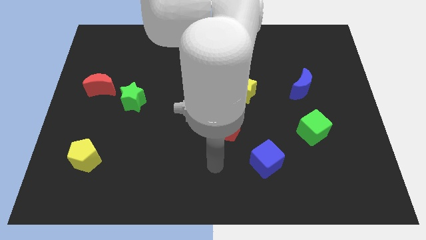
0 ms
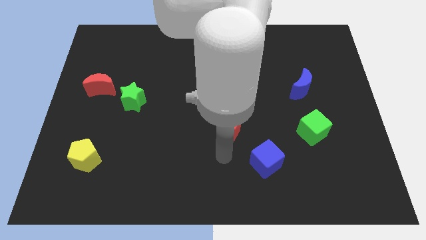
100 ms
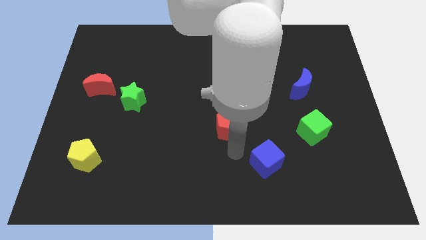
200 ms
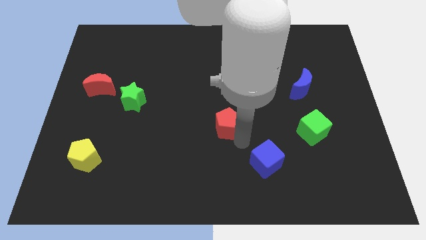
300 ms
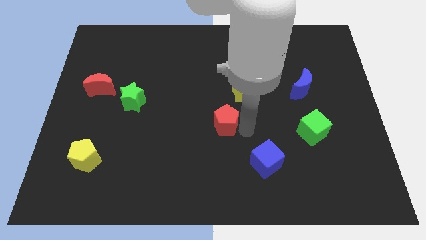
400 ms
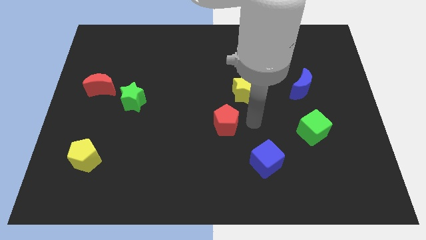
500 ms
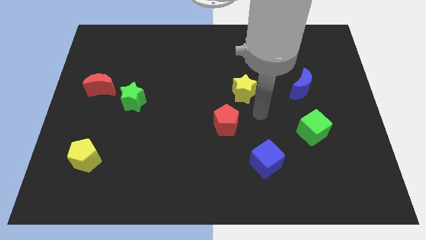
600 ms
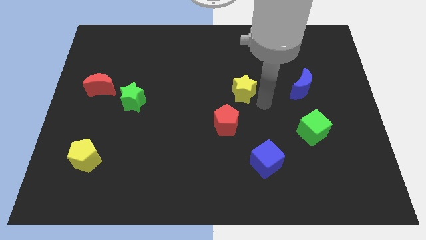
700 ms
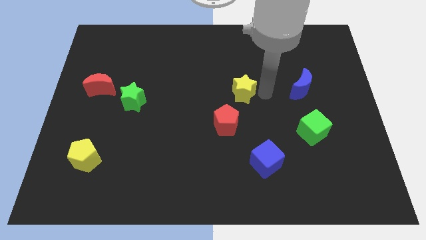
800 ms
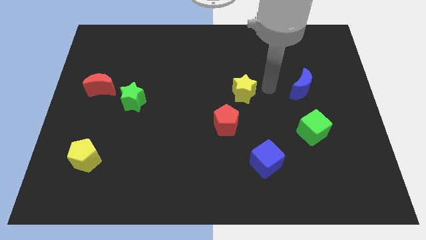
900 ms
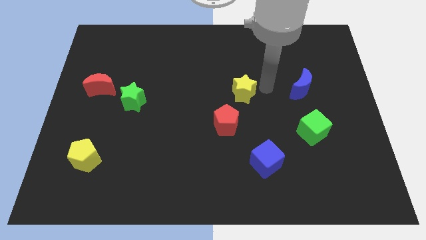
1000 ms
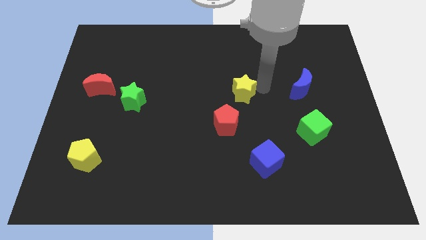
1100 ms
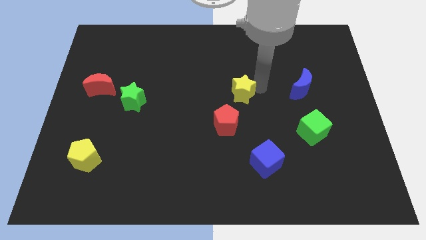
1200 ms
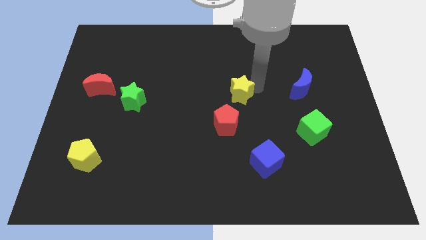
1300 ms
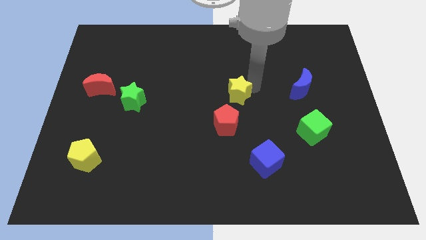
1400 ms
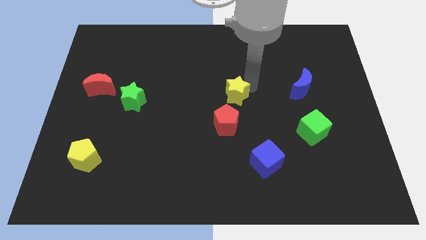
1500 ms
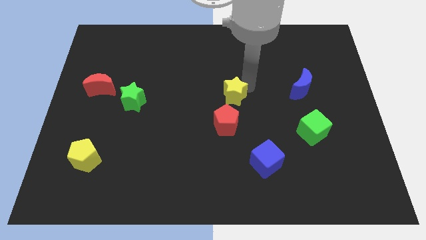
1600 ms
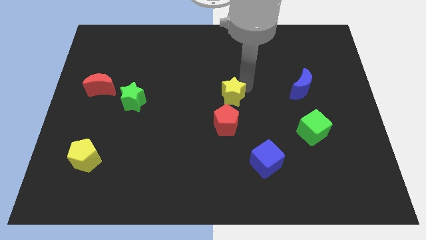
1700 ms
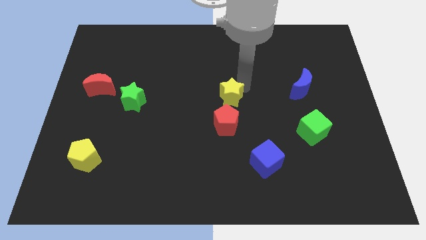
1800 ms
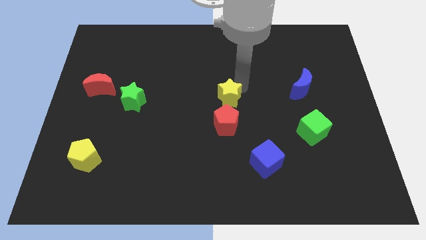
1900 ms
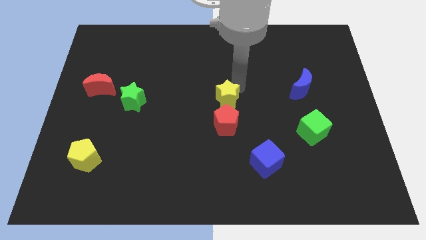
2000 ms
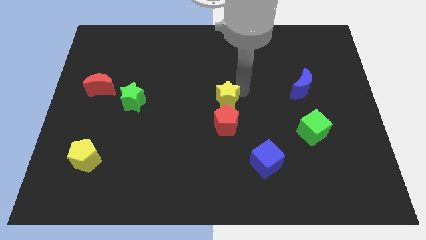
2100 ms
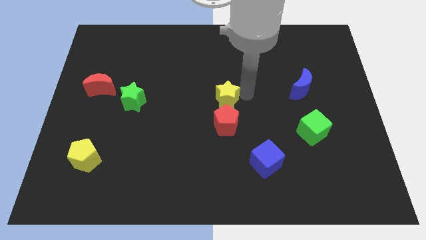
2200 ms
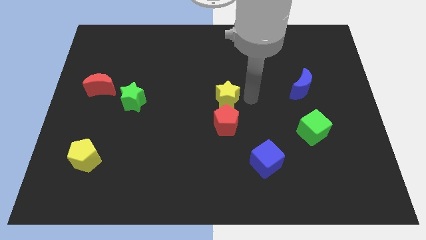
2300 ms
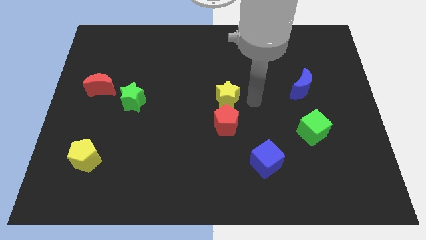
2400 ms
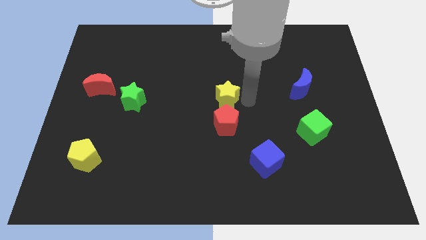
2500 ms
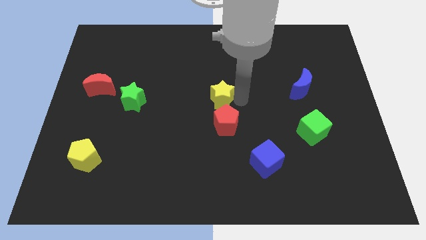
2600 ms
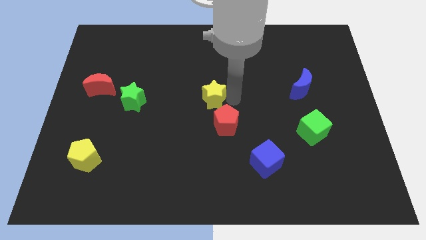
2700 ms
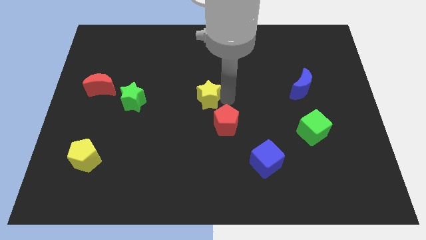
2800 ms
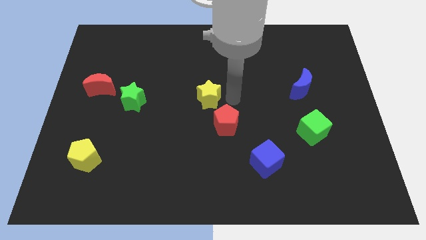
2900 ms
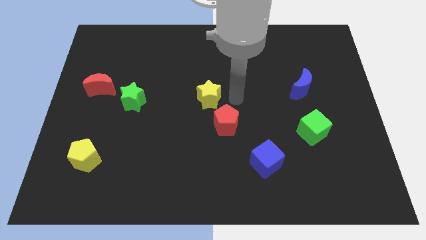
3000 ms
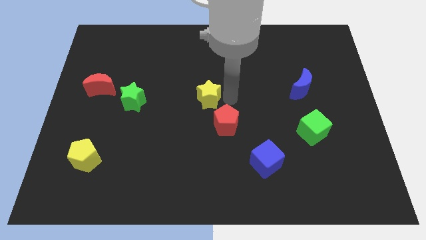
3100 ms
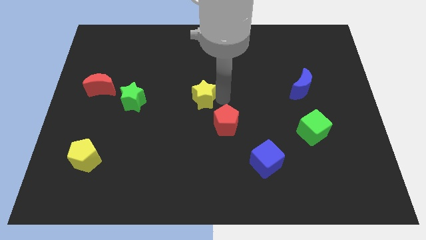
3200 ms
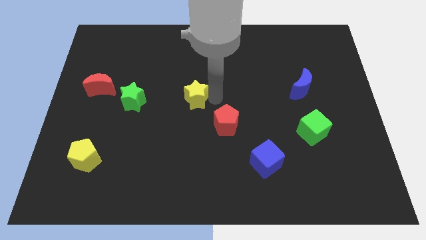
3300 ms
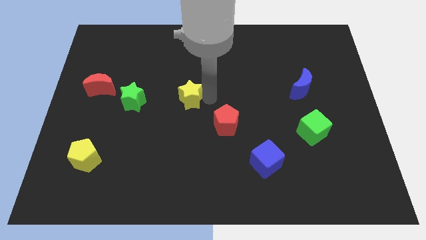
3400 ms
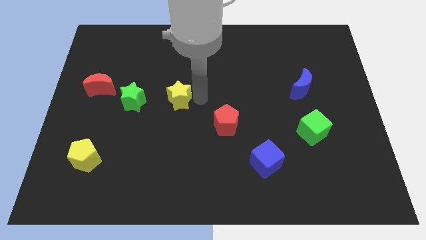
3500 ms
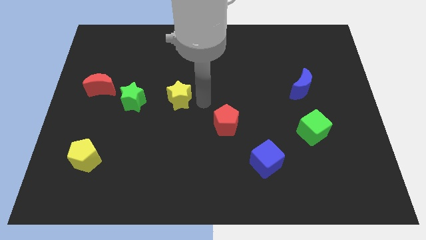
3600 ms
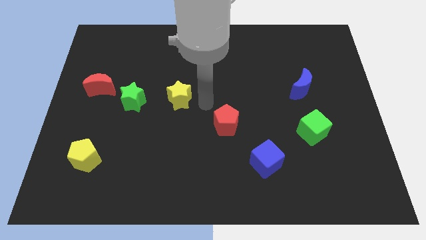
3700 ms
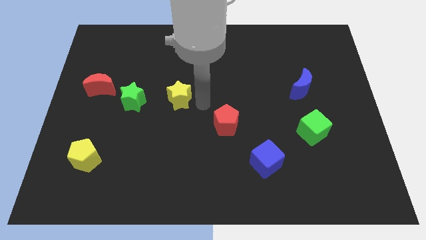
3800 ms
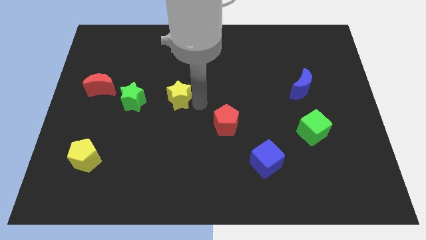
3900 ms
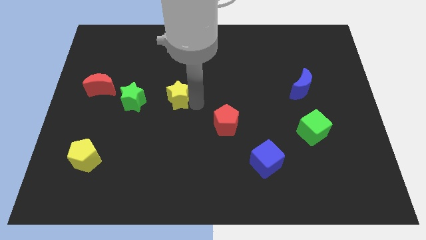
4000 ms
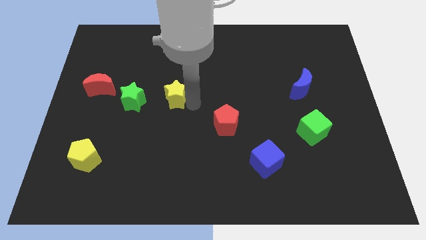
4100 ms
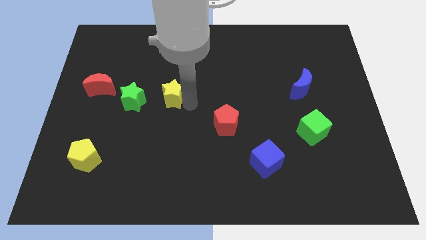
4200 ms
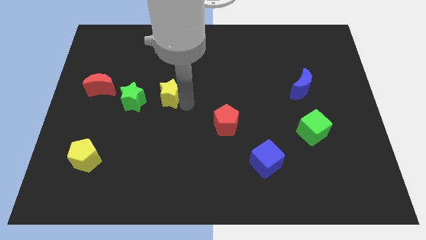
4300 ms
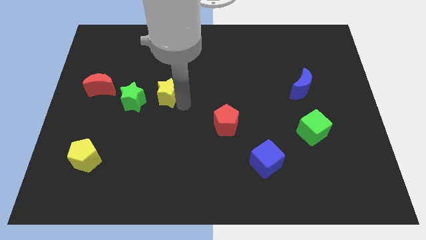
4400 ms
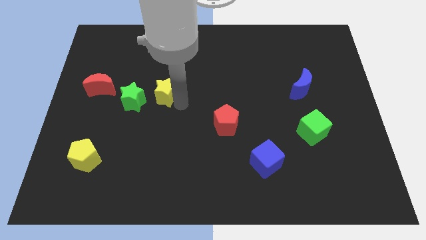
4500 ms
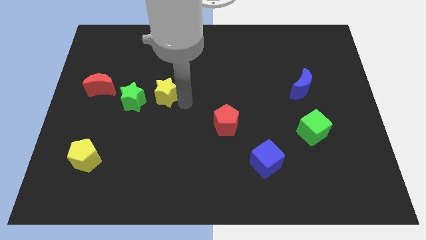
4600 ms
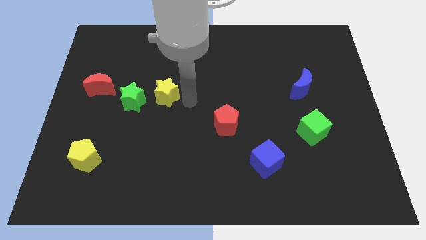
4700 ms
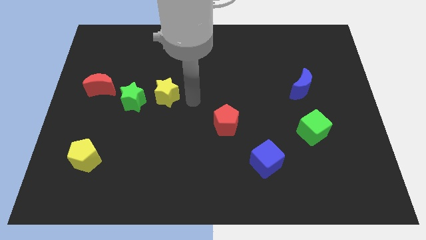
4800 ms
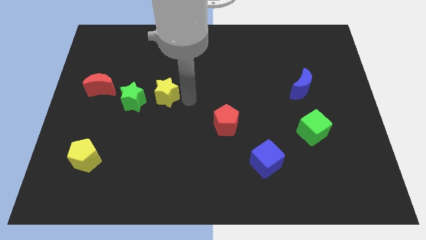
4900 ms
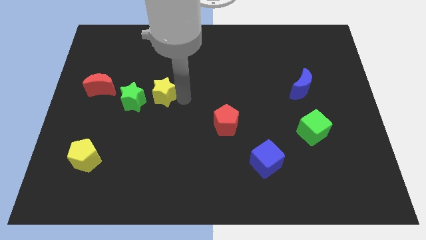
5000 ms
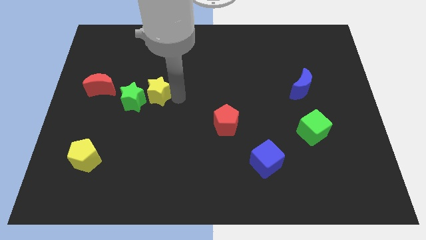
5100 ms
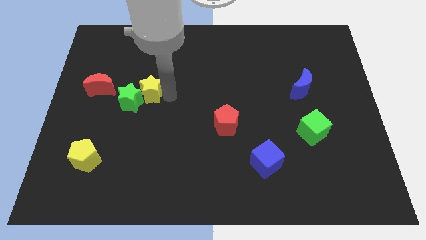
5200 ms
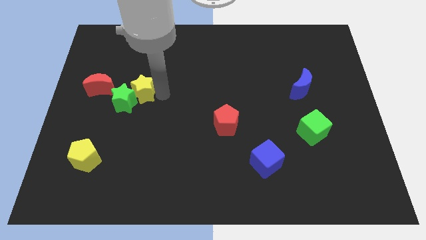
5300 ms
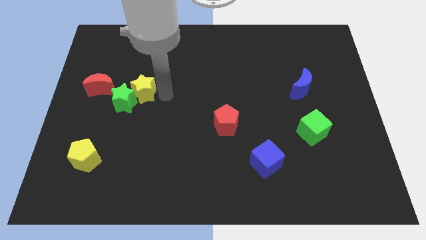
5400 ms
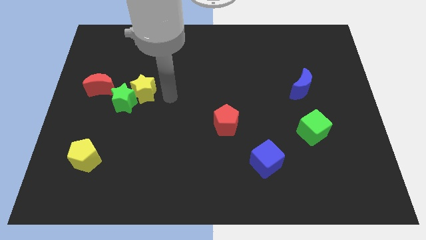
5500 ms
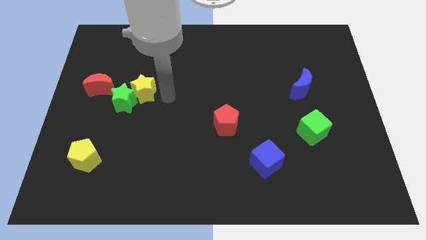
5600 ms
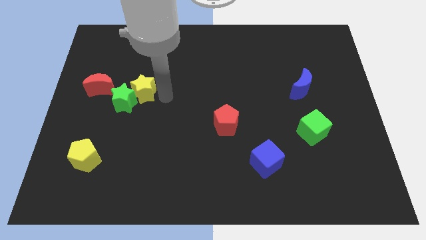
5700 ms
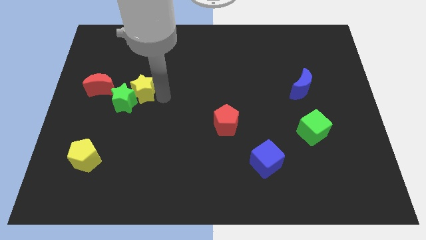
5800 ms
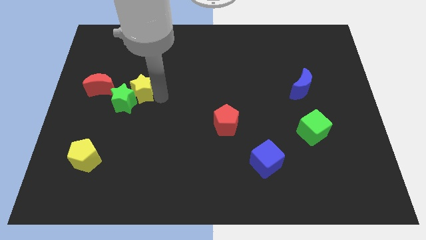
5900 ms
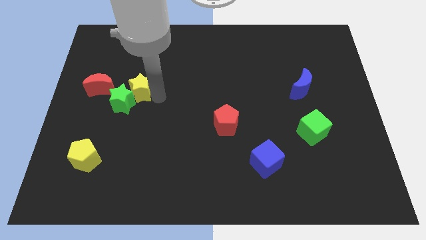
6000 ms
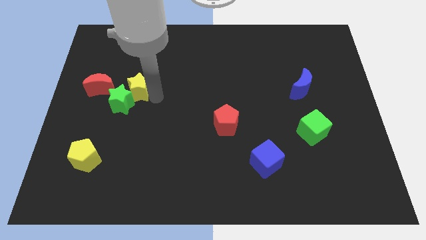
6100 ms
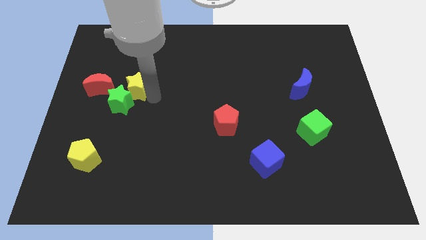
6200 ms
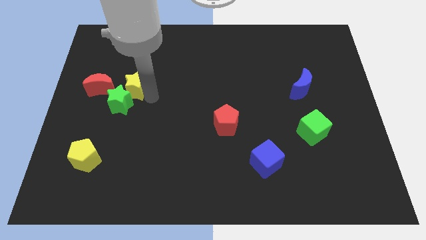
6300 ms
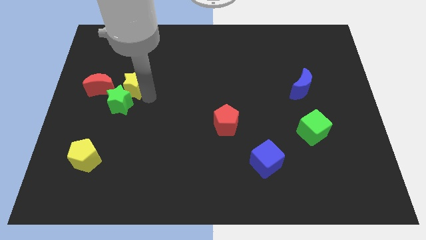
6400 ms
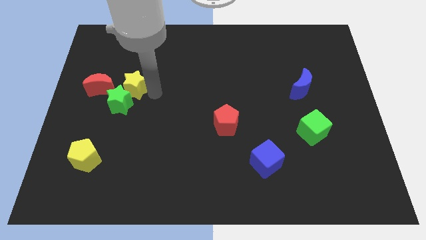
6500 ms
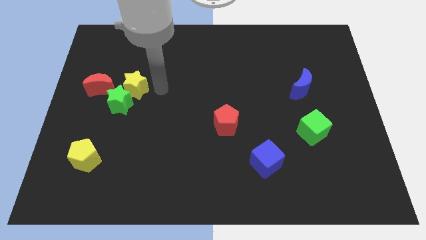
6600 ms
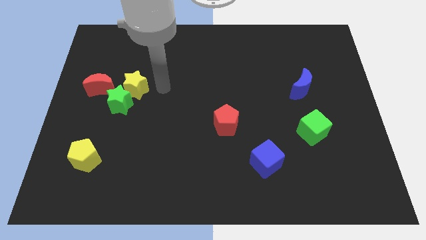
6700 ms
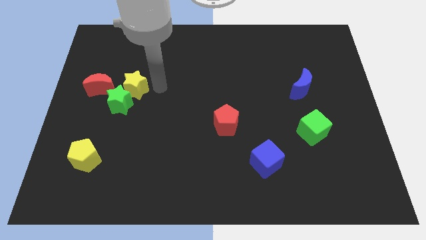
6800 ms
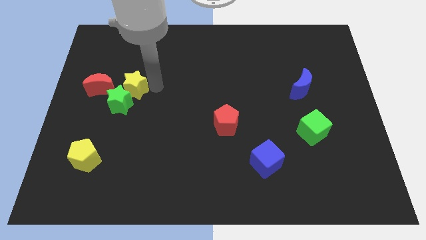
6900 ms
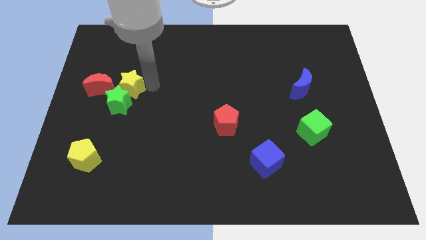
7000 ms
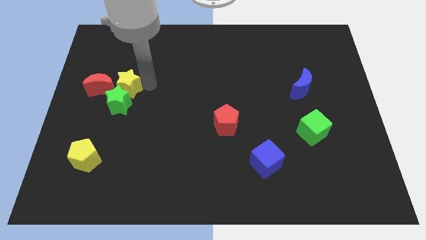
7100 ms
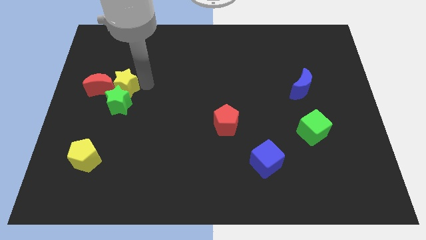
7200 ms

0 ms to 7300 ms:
move the yellow star next to the red moon

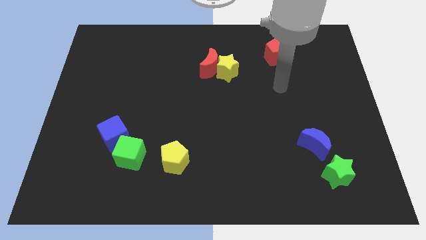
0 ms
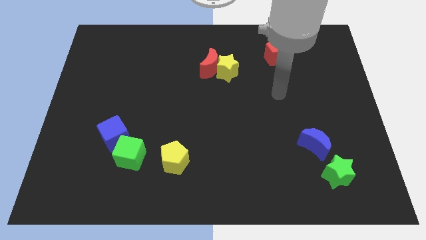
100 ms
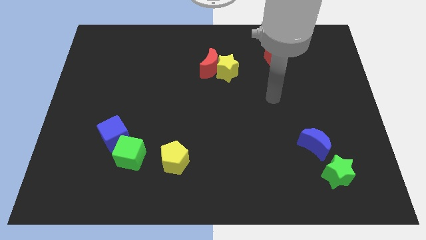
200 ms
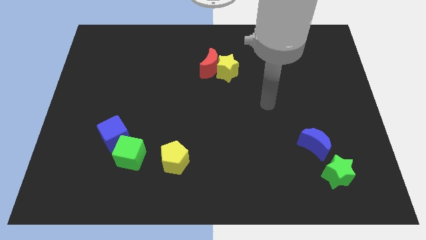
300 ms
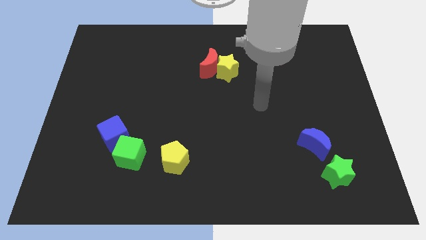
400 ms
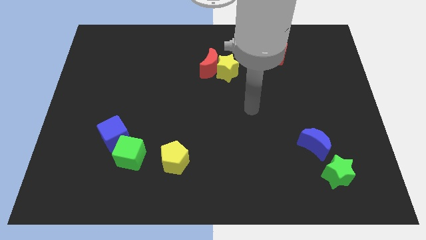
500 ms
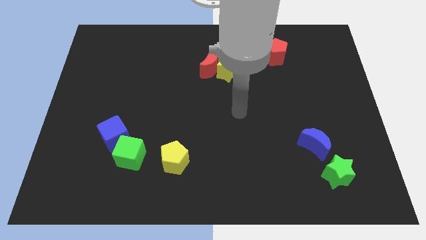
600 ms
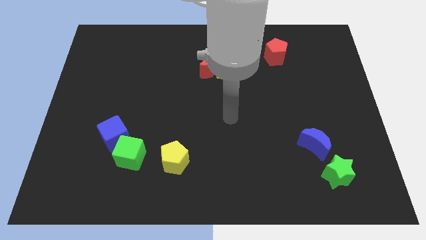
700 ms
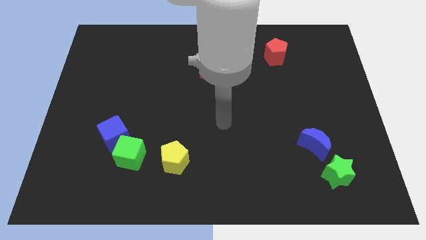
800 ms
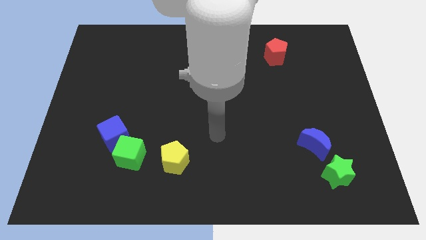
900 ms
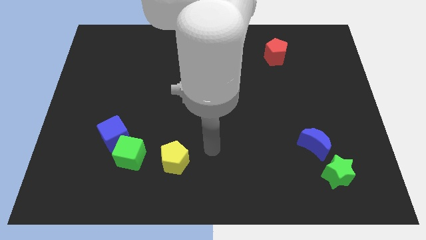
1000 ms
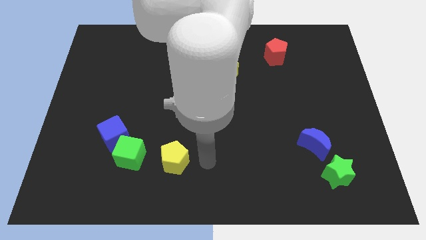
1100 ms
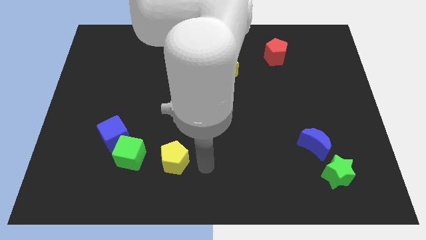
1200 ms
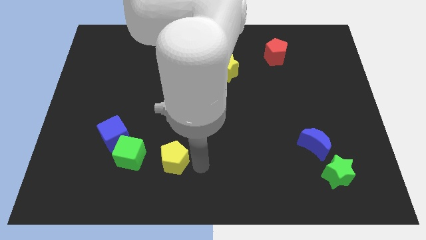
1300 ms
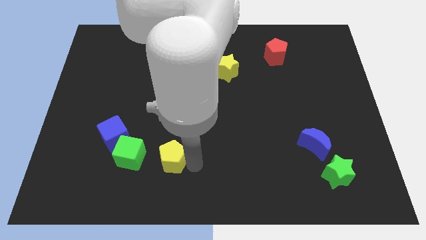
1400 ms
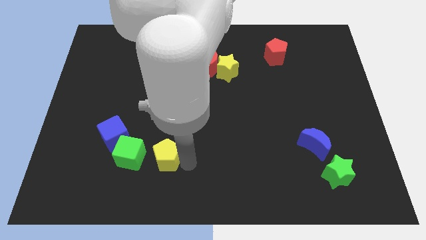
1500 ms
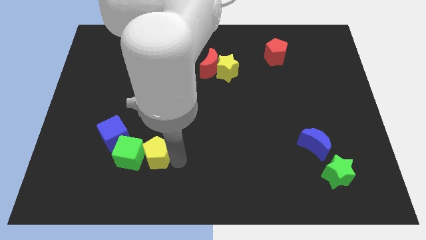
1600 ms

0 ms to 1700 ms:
put the yellow pentagon towards the green cube
